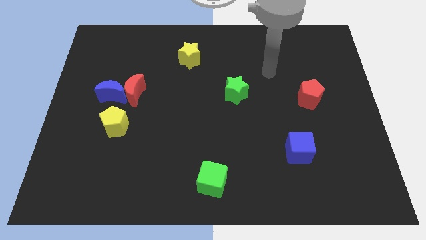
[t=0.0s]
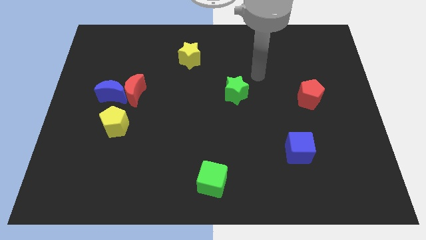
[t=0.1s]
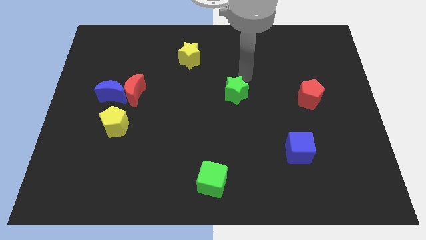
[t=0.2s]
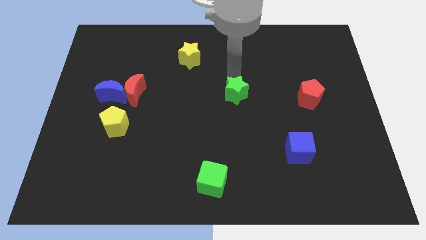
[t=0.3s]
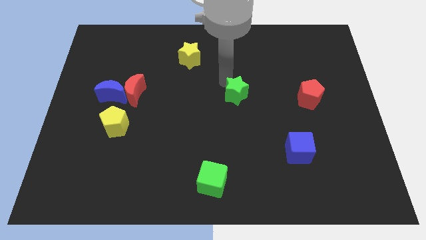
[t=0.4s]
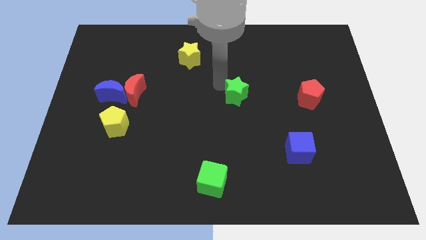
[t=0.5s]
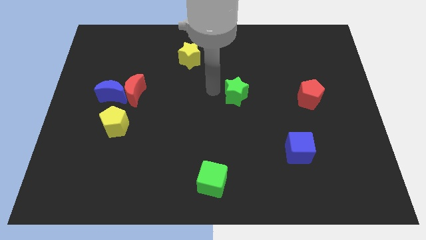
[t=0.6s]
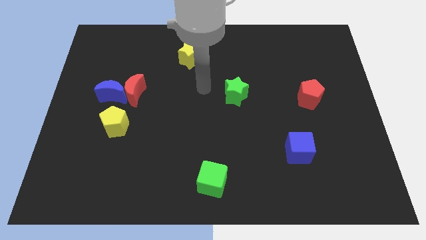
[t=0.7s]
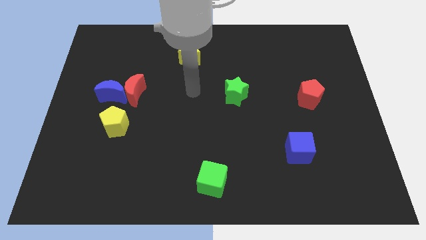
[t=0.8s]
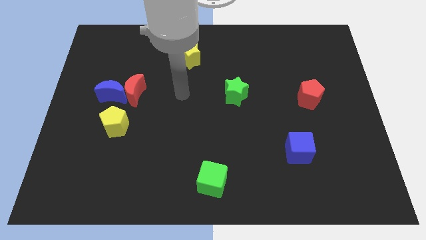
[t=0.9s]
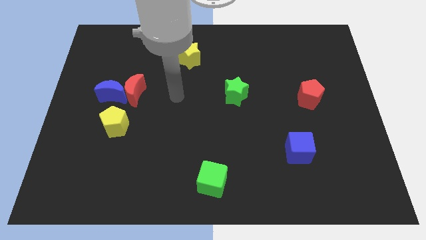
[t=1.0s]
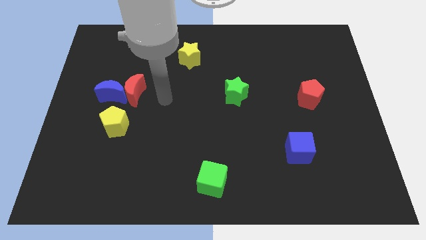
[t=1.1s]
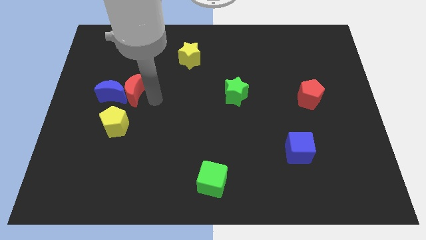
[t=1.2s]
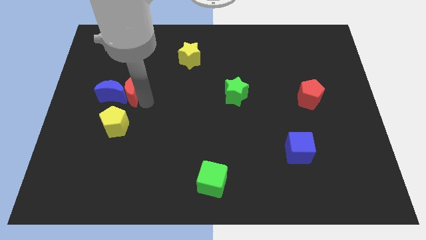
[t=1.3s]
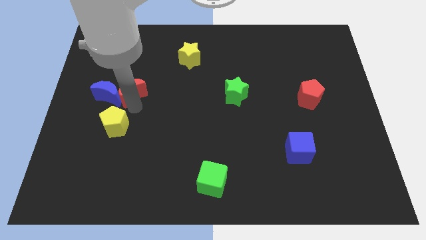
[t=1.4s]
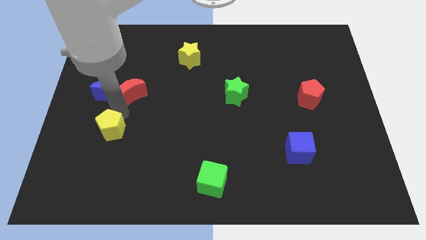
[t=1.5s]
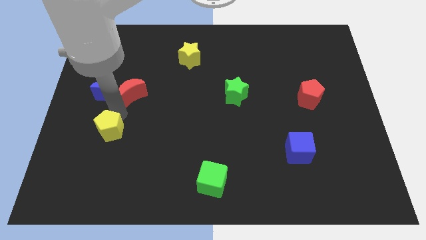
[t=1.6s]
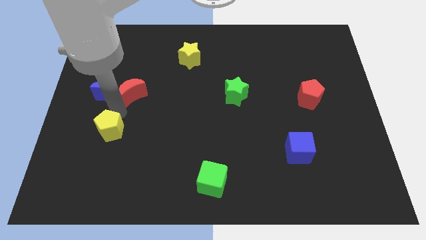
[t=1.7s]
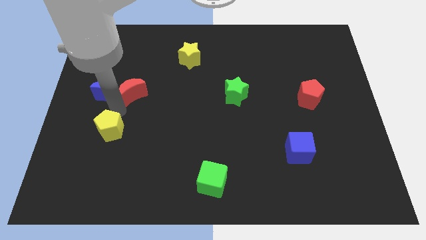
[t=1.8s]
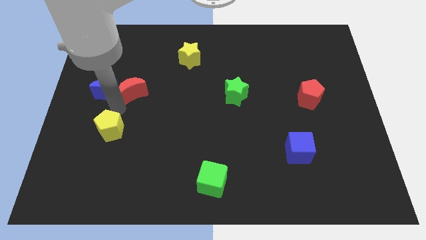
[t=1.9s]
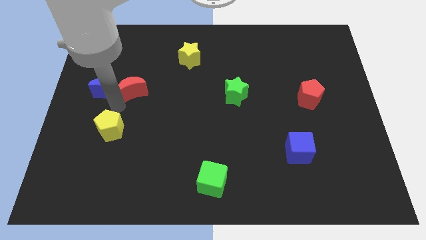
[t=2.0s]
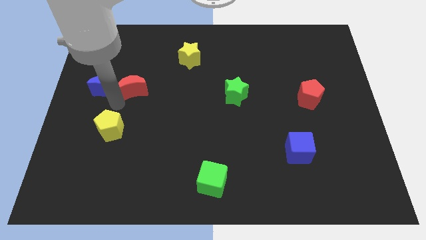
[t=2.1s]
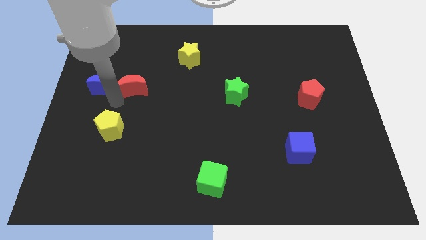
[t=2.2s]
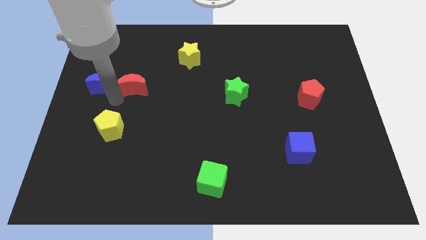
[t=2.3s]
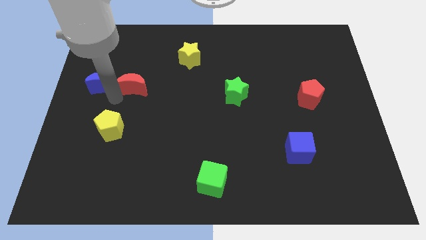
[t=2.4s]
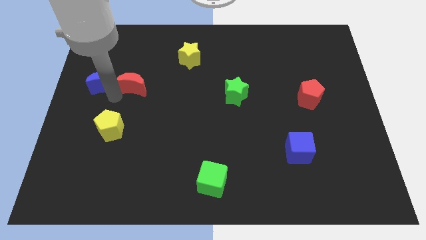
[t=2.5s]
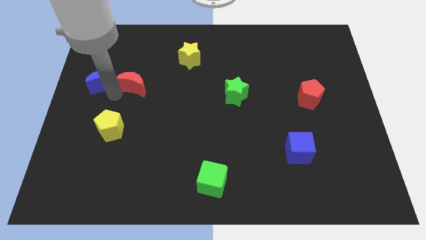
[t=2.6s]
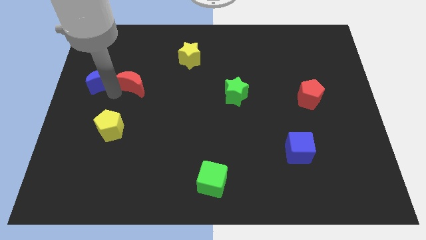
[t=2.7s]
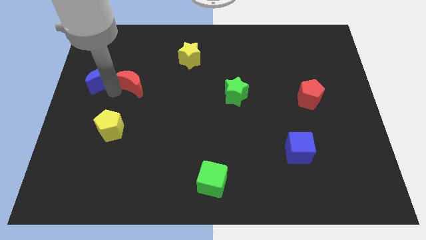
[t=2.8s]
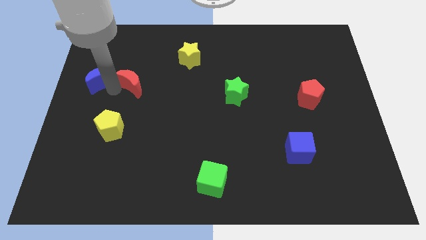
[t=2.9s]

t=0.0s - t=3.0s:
separate the blue moon from the red moon and yellow pentagon

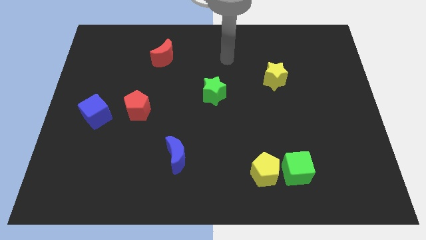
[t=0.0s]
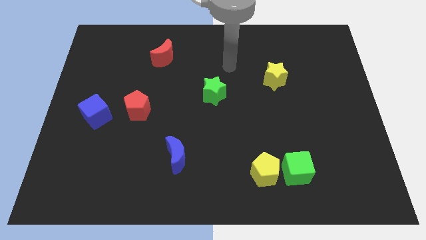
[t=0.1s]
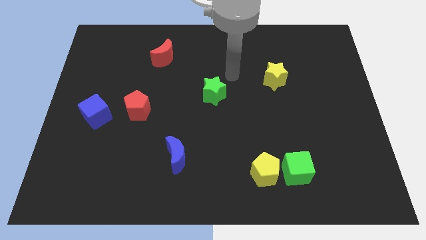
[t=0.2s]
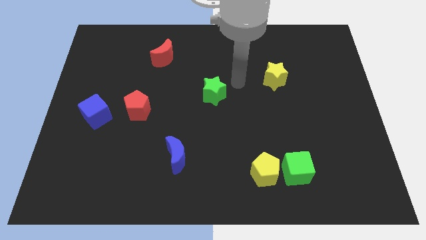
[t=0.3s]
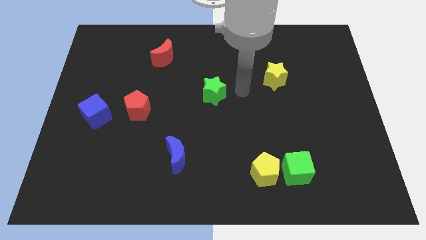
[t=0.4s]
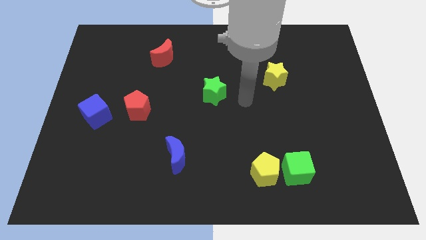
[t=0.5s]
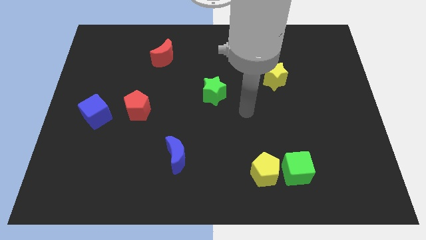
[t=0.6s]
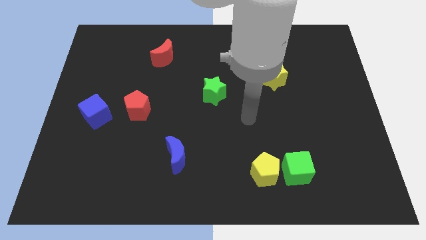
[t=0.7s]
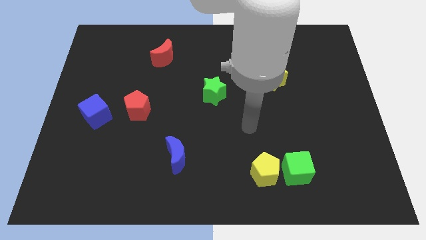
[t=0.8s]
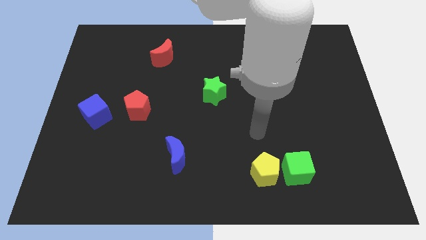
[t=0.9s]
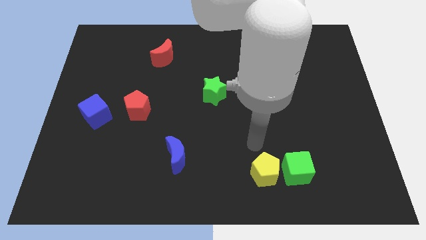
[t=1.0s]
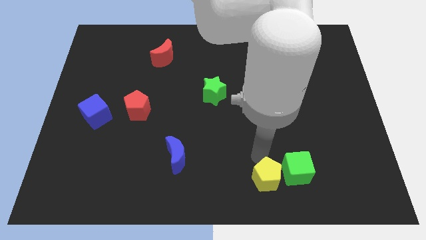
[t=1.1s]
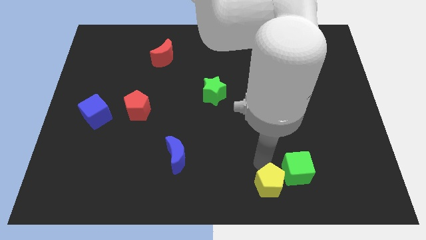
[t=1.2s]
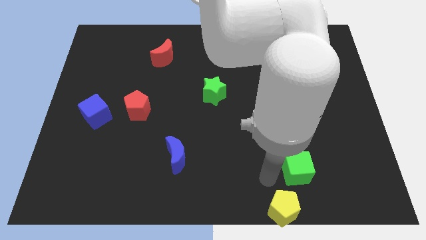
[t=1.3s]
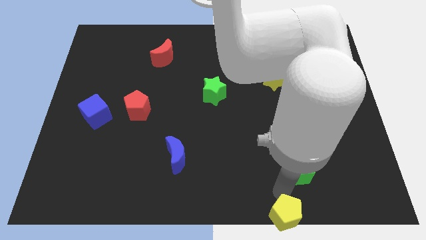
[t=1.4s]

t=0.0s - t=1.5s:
pull the green cube apart from the yellow pentagon

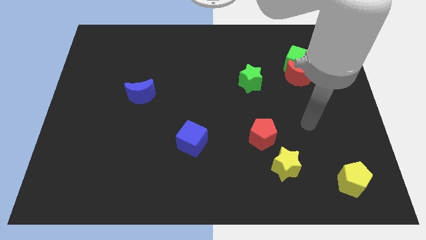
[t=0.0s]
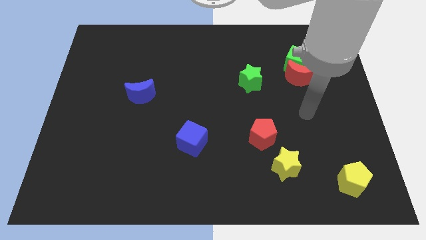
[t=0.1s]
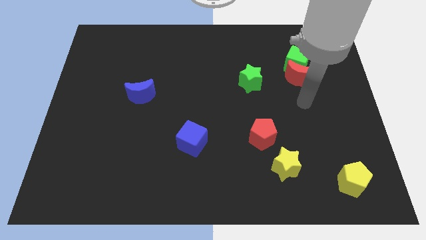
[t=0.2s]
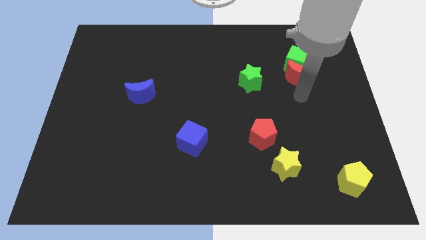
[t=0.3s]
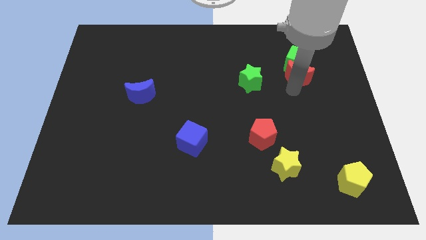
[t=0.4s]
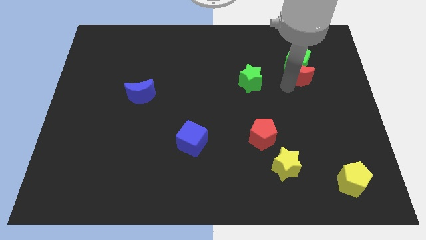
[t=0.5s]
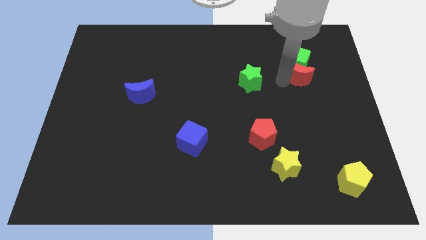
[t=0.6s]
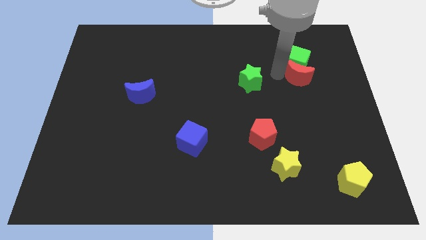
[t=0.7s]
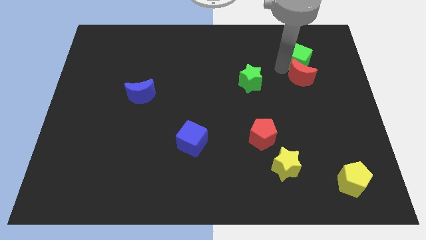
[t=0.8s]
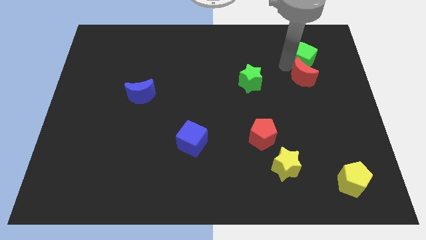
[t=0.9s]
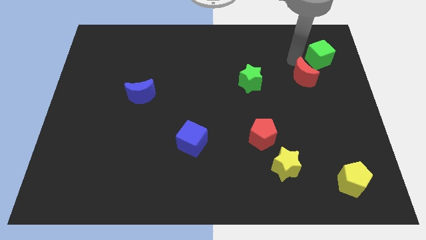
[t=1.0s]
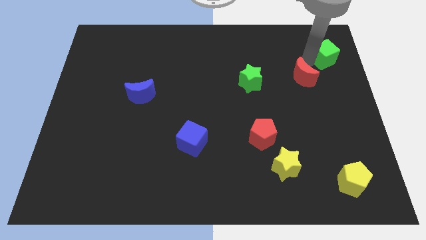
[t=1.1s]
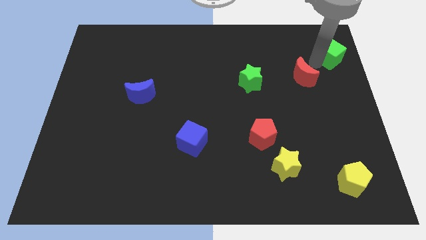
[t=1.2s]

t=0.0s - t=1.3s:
pull the red moon apart from the green cube

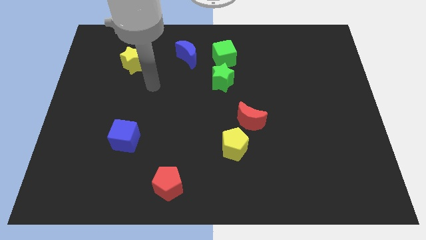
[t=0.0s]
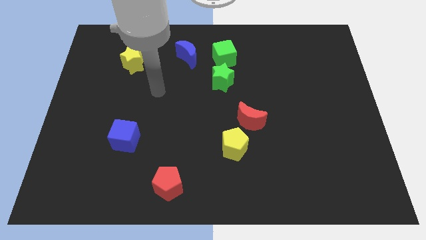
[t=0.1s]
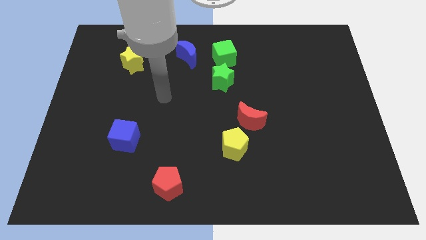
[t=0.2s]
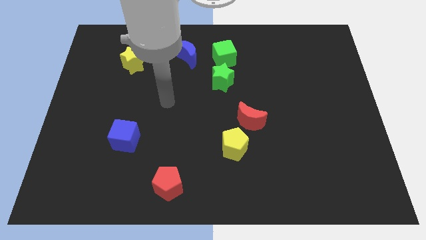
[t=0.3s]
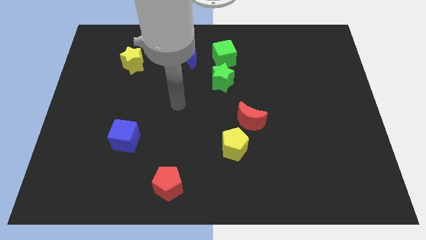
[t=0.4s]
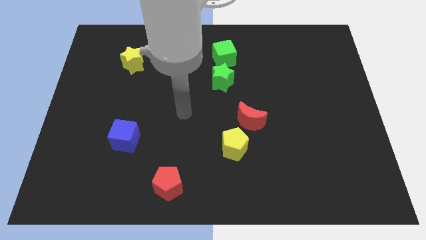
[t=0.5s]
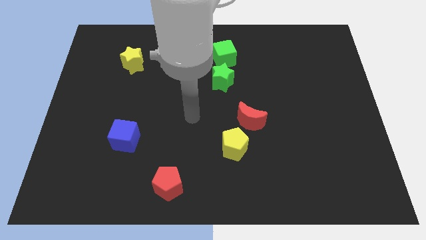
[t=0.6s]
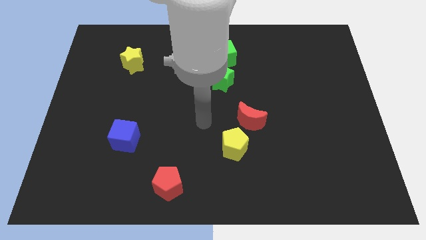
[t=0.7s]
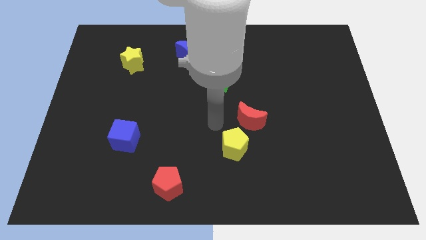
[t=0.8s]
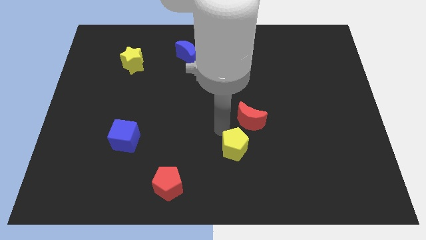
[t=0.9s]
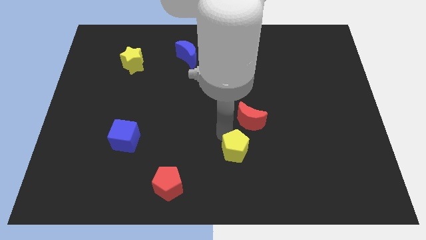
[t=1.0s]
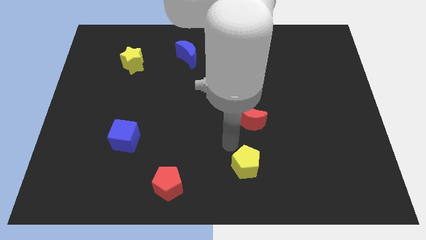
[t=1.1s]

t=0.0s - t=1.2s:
move the red moon away from the yellow pentagon

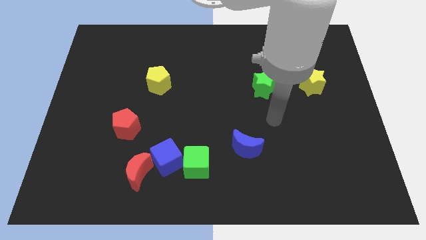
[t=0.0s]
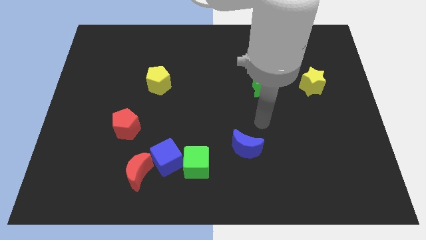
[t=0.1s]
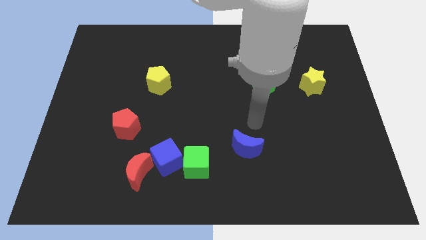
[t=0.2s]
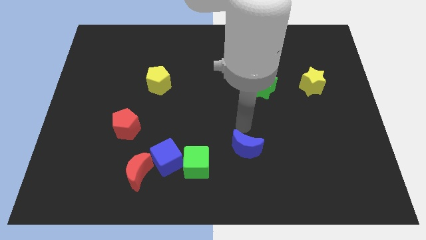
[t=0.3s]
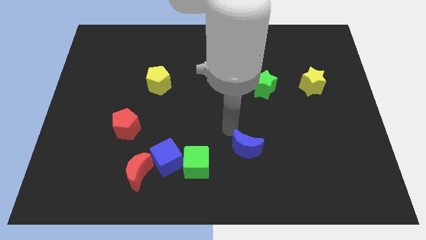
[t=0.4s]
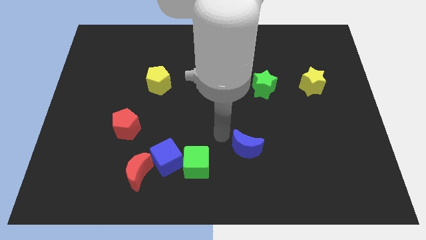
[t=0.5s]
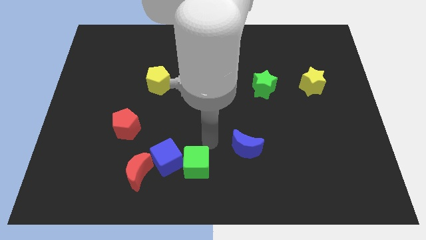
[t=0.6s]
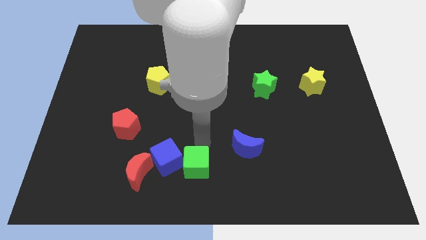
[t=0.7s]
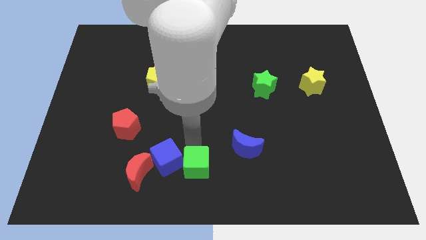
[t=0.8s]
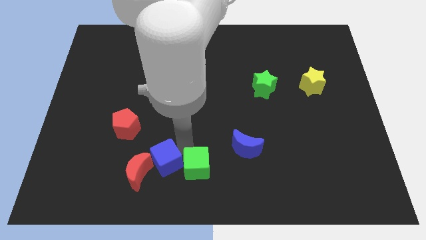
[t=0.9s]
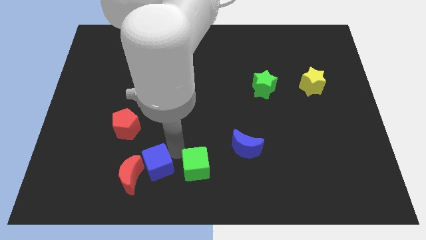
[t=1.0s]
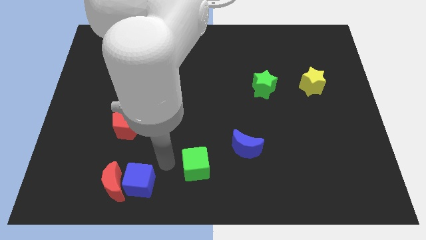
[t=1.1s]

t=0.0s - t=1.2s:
pull the green cube apart from the blue cube

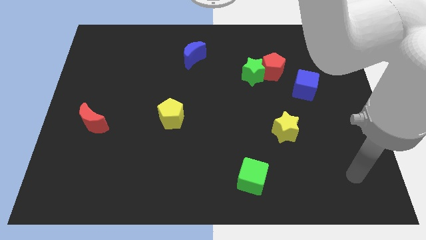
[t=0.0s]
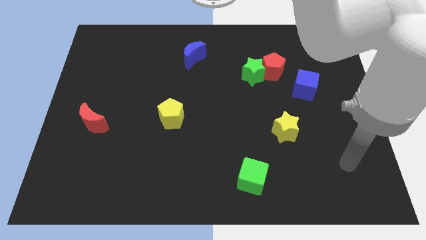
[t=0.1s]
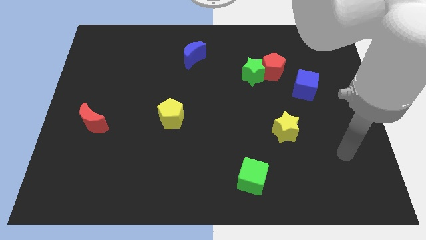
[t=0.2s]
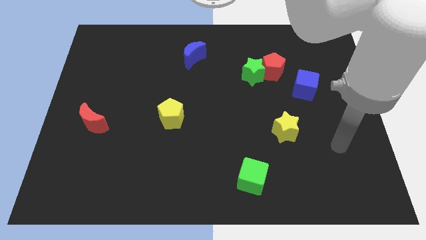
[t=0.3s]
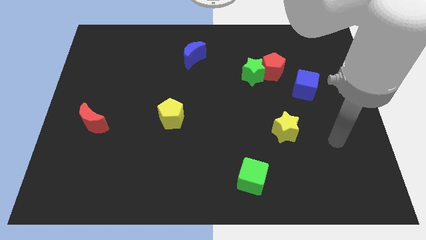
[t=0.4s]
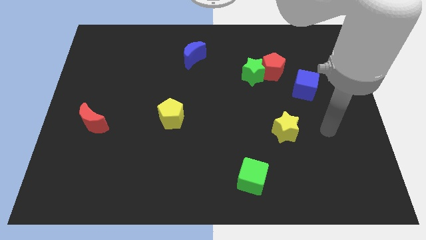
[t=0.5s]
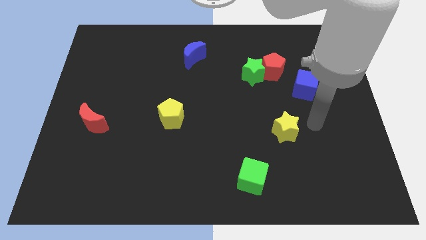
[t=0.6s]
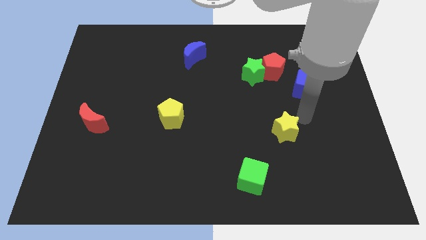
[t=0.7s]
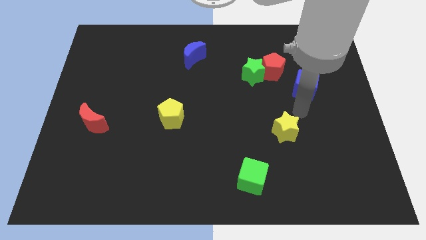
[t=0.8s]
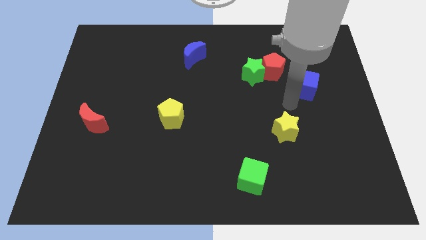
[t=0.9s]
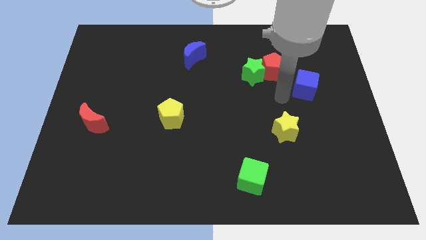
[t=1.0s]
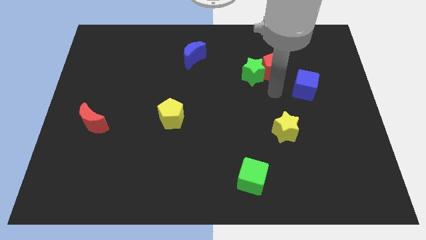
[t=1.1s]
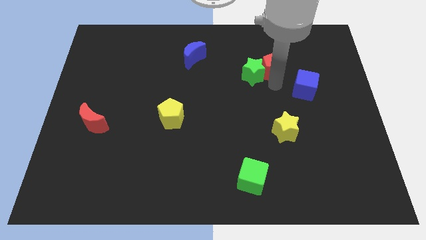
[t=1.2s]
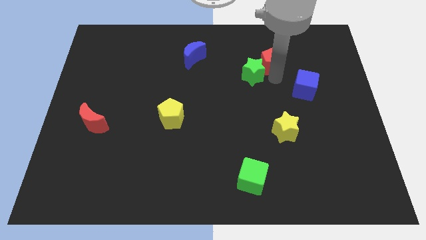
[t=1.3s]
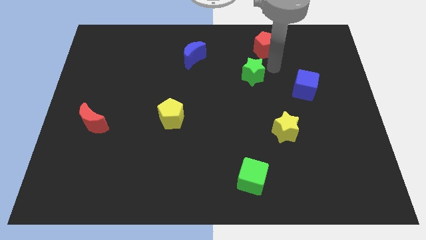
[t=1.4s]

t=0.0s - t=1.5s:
separate the green star from the red pentagon
